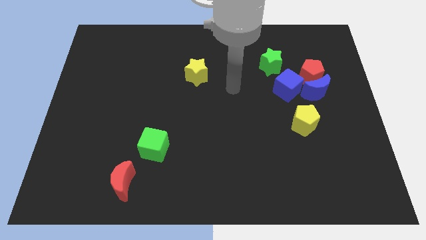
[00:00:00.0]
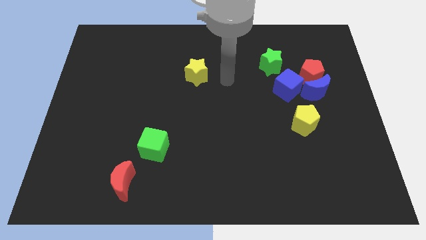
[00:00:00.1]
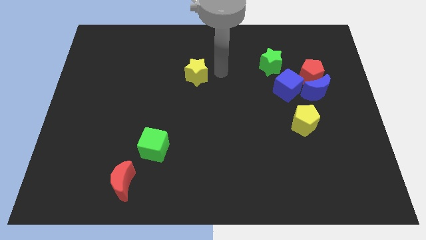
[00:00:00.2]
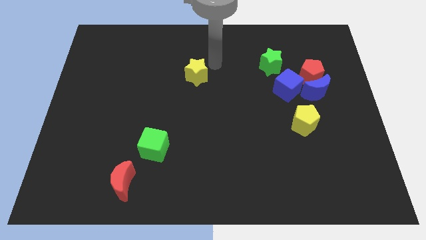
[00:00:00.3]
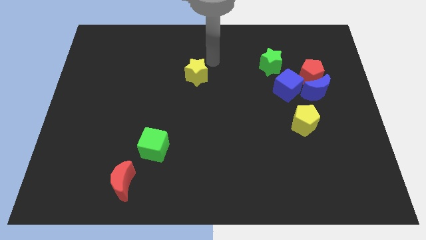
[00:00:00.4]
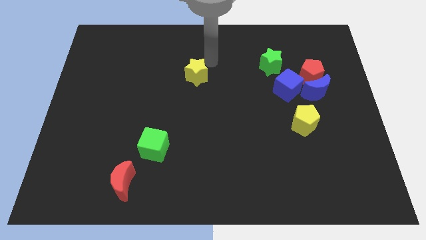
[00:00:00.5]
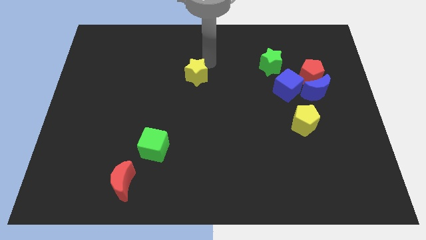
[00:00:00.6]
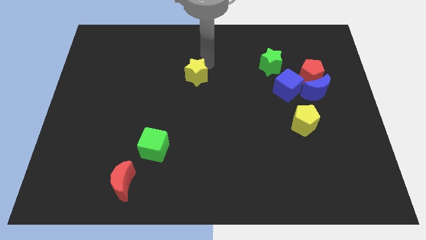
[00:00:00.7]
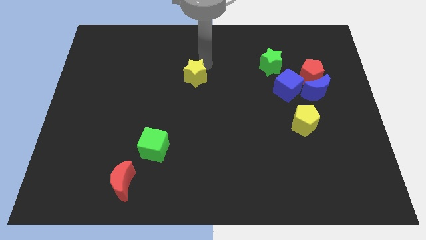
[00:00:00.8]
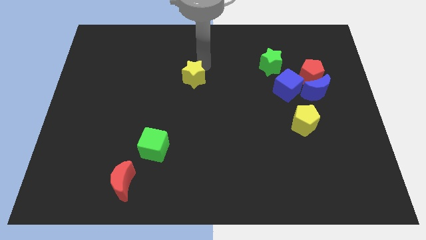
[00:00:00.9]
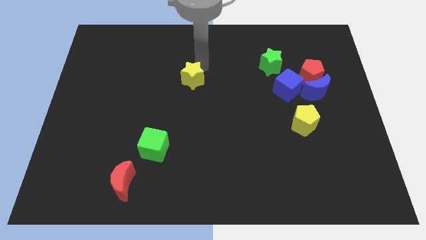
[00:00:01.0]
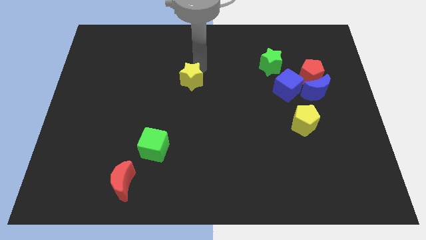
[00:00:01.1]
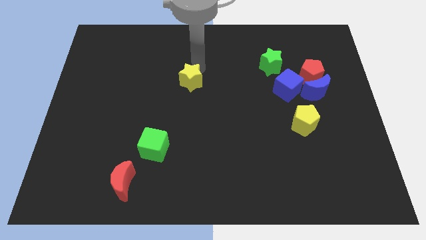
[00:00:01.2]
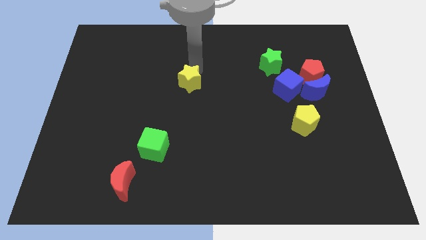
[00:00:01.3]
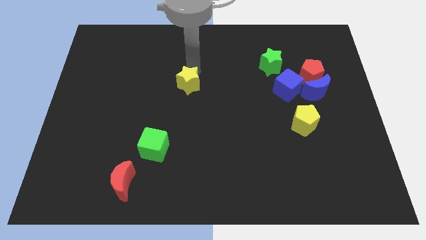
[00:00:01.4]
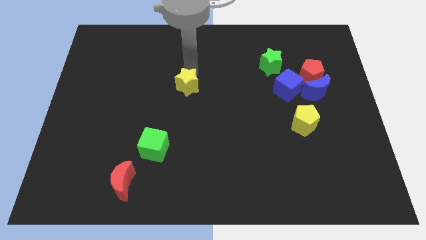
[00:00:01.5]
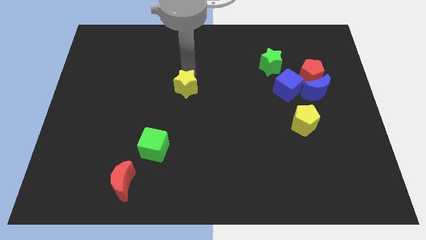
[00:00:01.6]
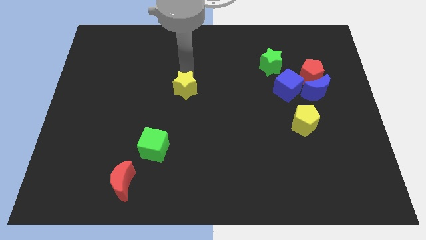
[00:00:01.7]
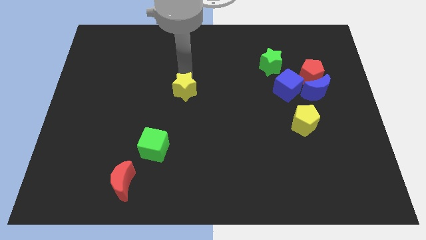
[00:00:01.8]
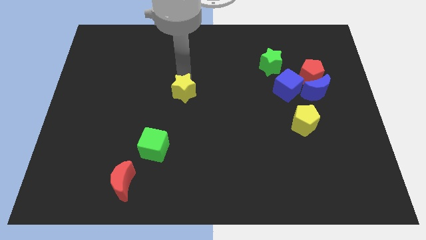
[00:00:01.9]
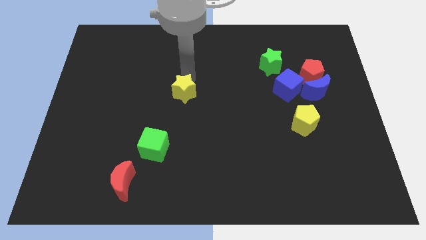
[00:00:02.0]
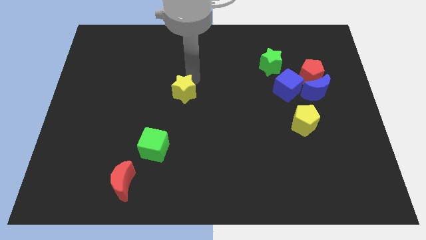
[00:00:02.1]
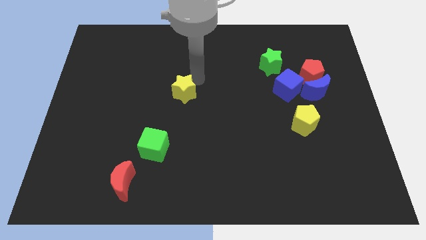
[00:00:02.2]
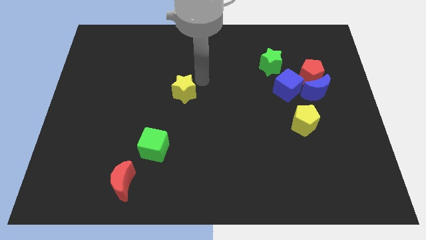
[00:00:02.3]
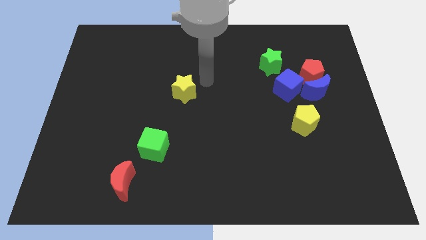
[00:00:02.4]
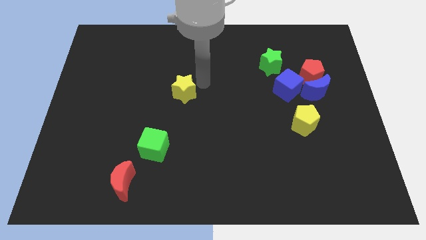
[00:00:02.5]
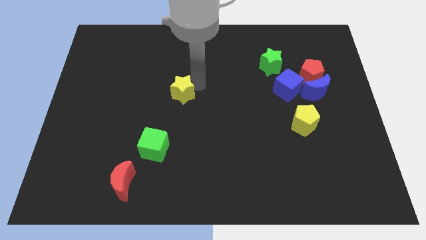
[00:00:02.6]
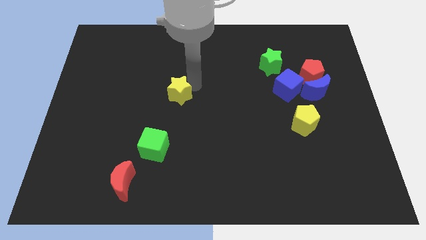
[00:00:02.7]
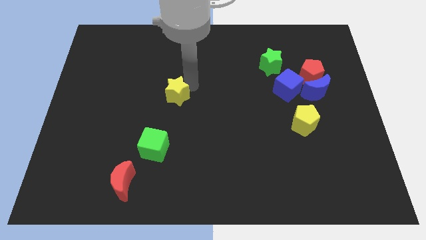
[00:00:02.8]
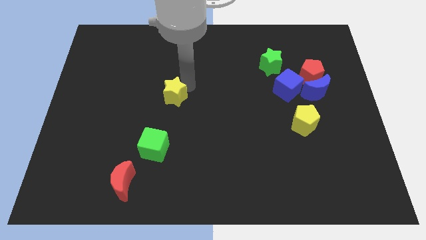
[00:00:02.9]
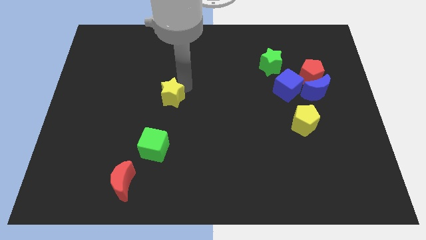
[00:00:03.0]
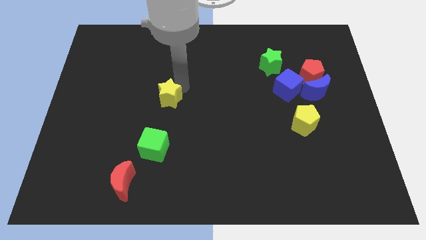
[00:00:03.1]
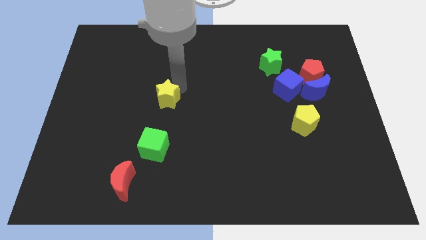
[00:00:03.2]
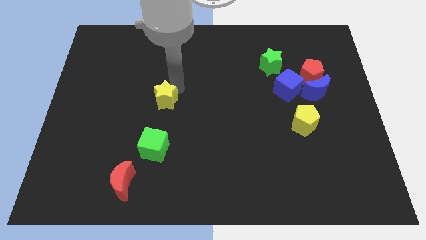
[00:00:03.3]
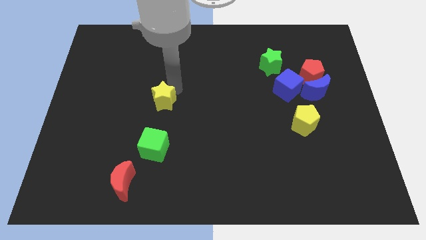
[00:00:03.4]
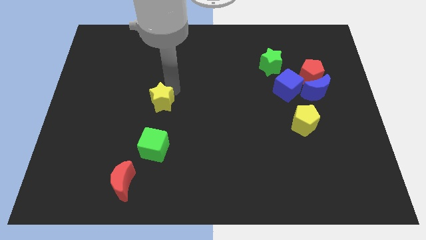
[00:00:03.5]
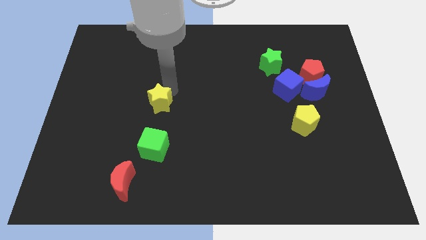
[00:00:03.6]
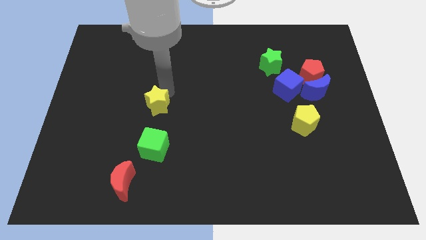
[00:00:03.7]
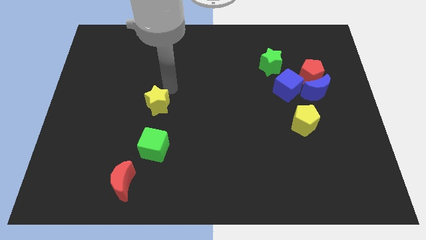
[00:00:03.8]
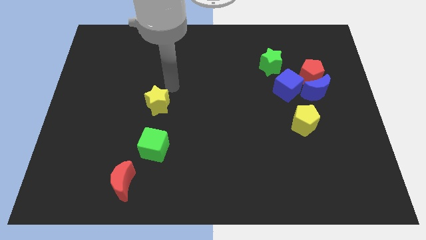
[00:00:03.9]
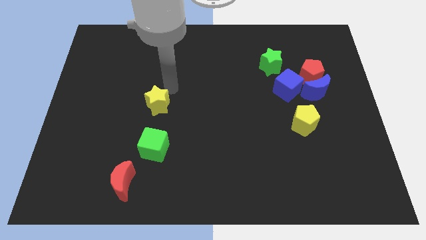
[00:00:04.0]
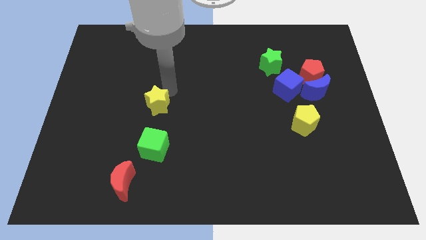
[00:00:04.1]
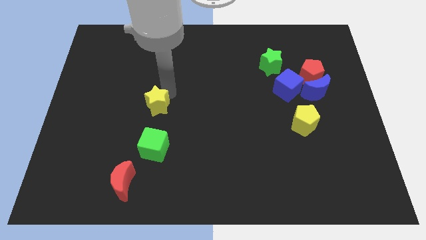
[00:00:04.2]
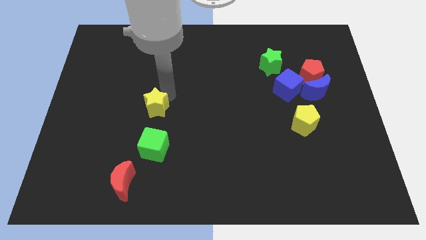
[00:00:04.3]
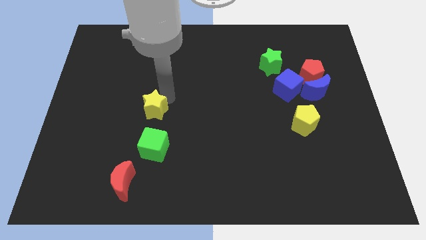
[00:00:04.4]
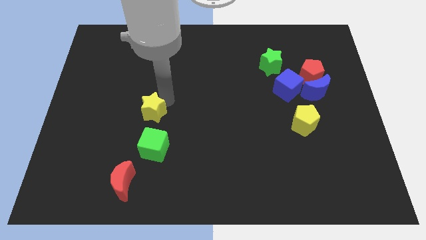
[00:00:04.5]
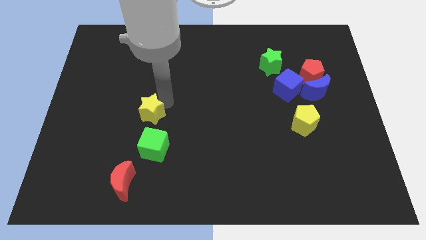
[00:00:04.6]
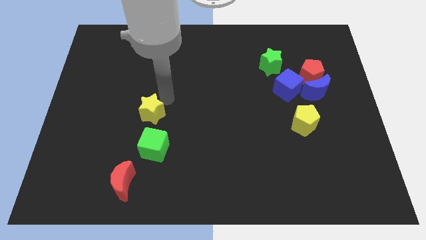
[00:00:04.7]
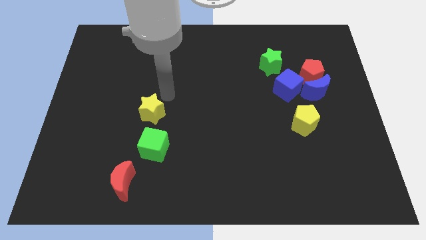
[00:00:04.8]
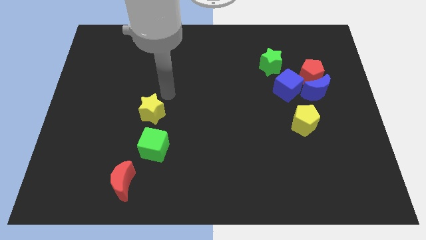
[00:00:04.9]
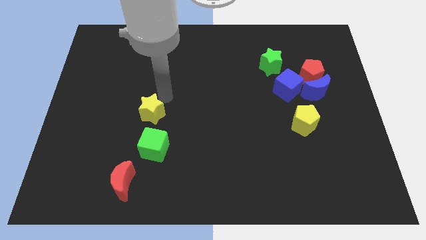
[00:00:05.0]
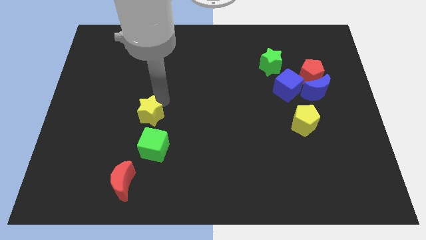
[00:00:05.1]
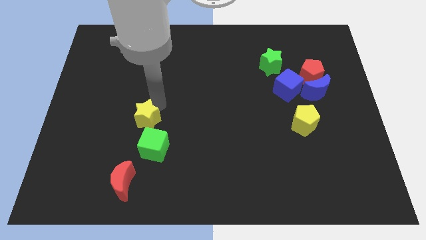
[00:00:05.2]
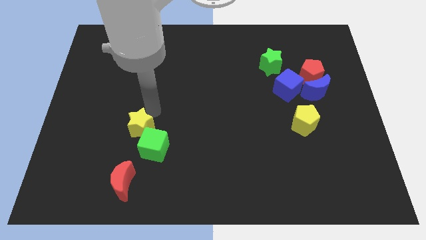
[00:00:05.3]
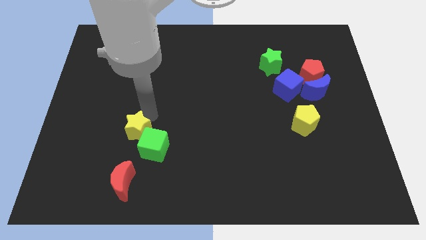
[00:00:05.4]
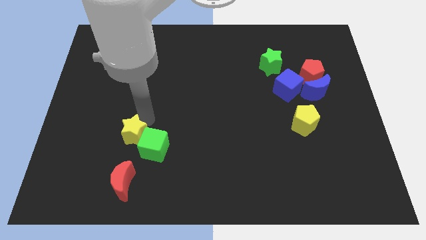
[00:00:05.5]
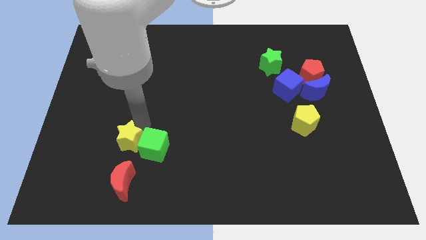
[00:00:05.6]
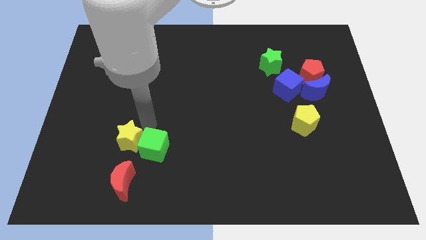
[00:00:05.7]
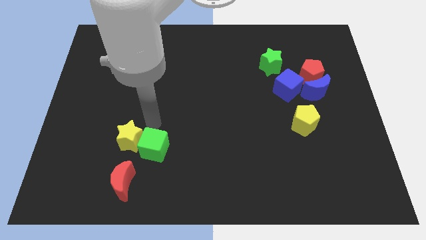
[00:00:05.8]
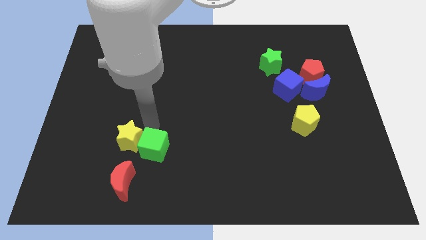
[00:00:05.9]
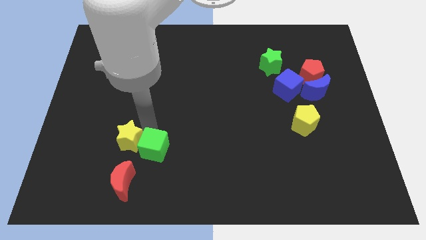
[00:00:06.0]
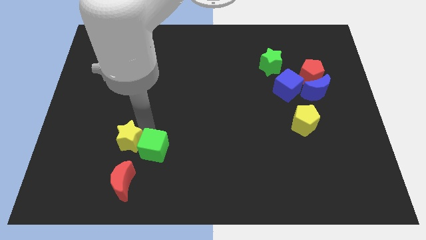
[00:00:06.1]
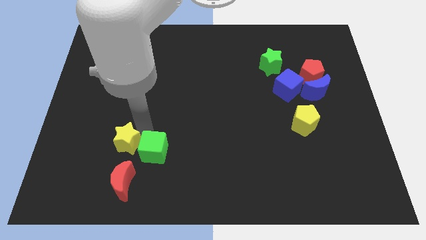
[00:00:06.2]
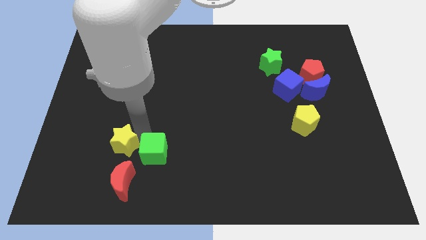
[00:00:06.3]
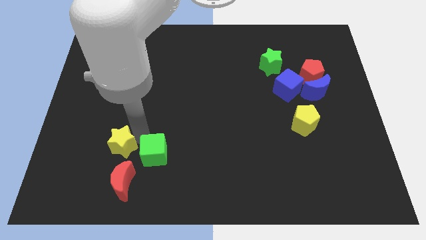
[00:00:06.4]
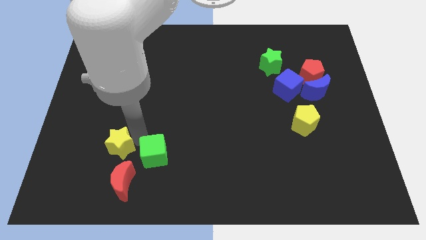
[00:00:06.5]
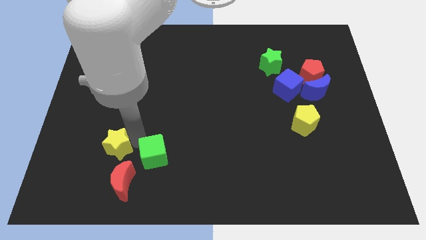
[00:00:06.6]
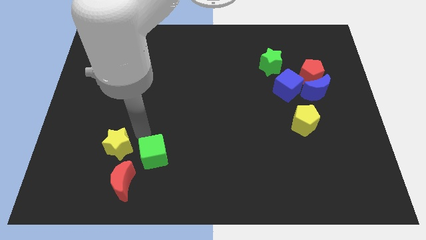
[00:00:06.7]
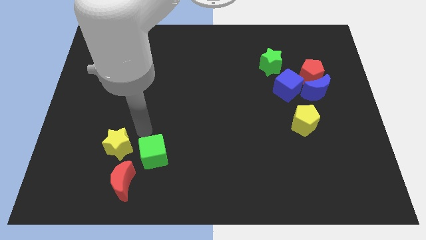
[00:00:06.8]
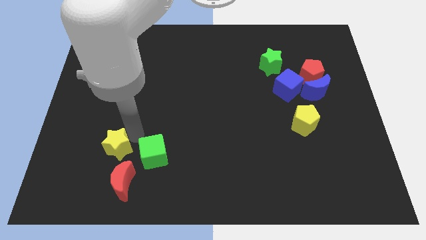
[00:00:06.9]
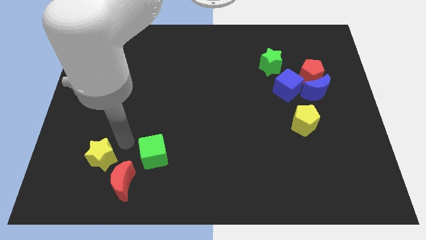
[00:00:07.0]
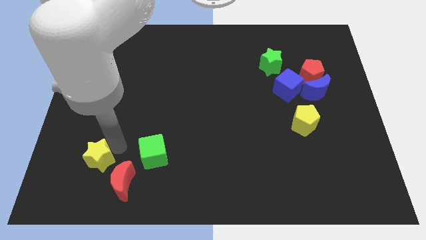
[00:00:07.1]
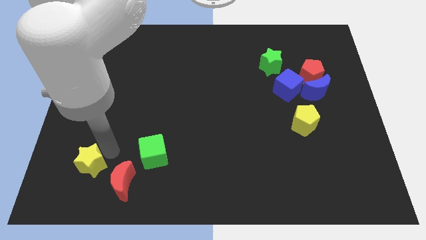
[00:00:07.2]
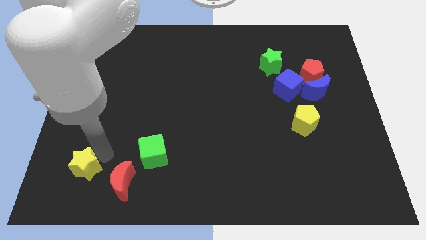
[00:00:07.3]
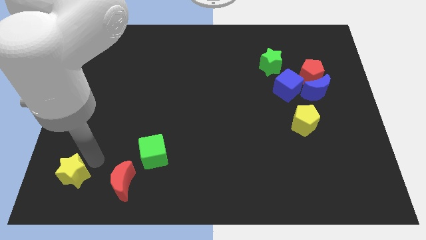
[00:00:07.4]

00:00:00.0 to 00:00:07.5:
slide the yellow star to the lower left corner
